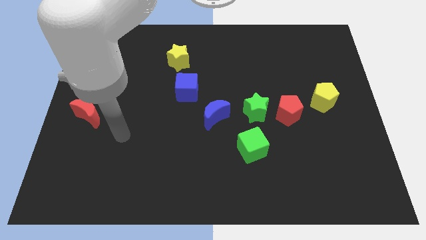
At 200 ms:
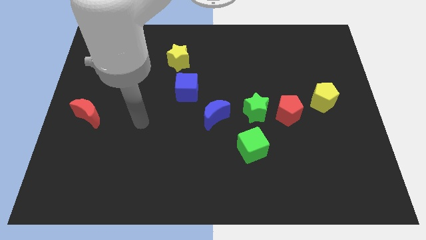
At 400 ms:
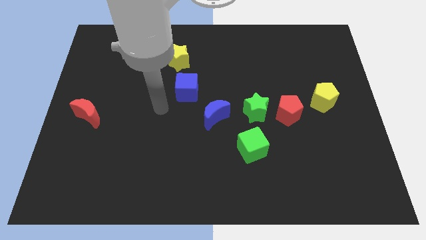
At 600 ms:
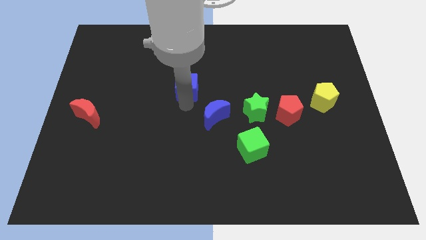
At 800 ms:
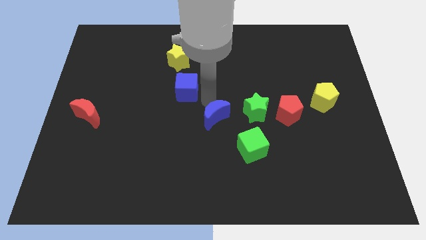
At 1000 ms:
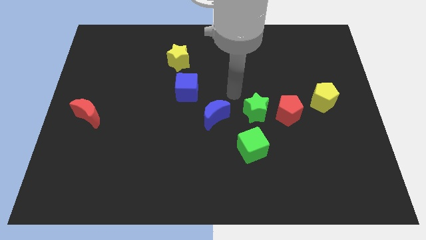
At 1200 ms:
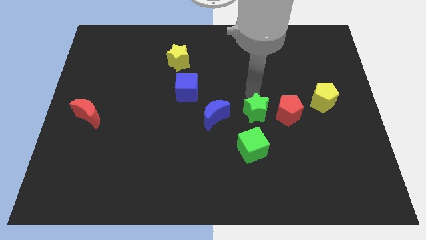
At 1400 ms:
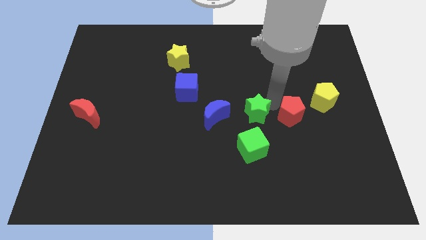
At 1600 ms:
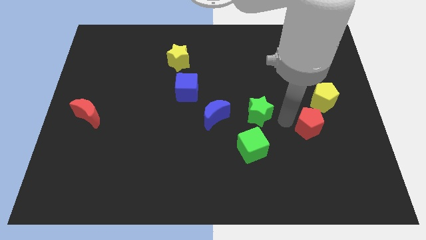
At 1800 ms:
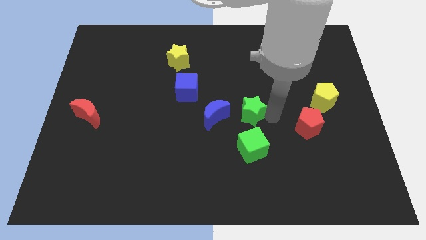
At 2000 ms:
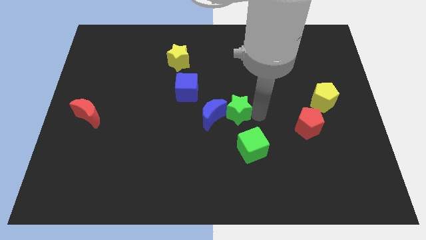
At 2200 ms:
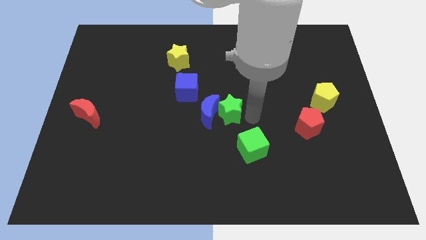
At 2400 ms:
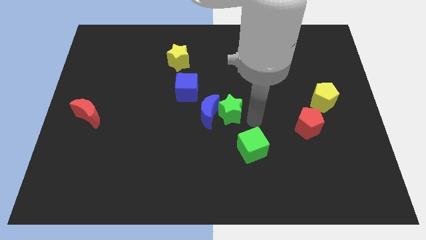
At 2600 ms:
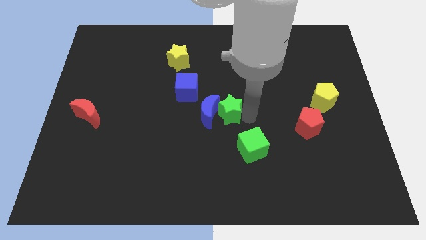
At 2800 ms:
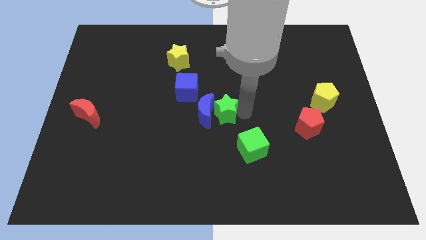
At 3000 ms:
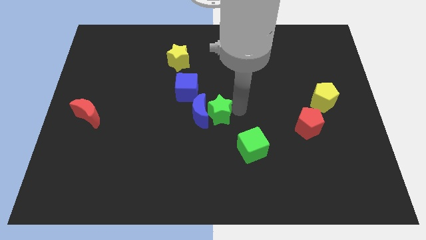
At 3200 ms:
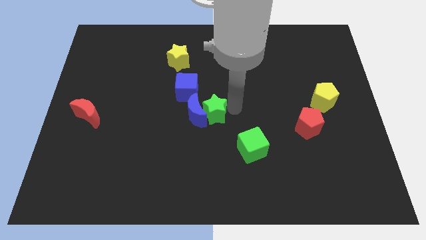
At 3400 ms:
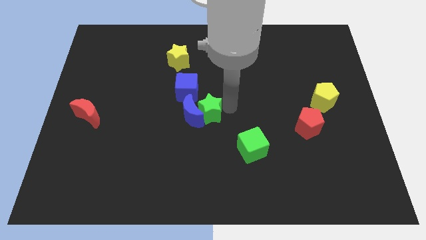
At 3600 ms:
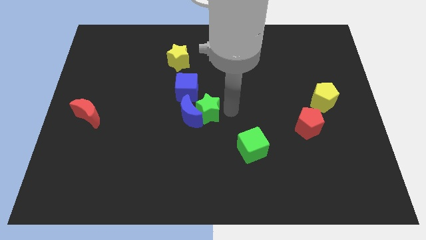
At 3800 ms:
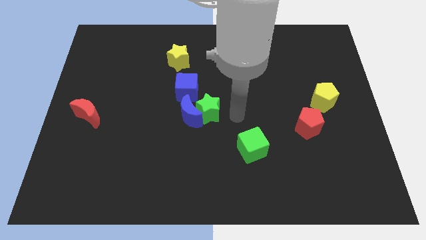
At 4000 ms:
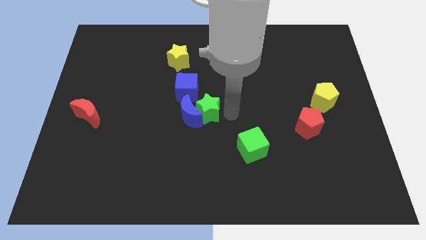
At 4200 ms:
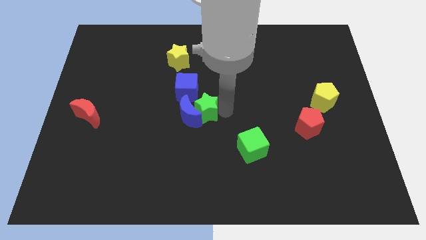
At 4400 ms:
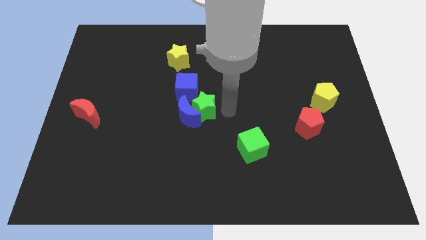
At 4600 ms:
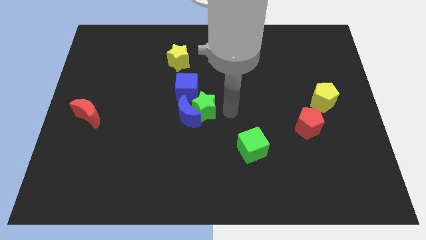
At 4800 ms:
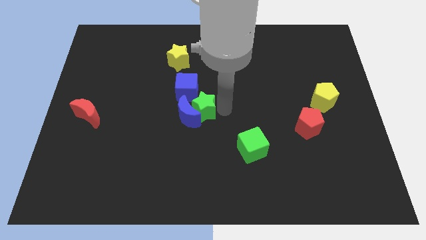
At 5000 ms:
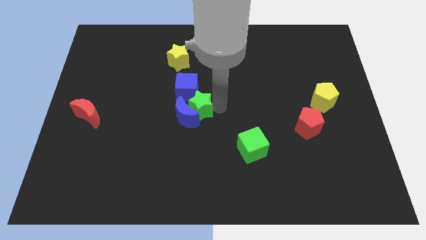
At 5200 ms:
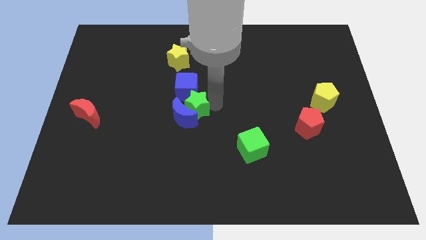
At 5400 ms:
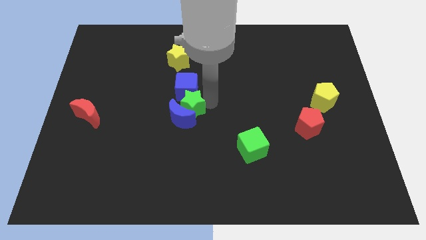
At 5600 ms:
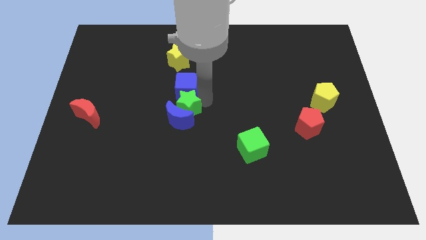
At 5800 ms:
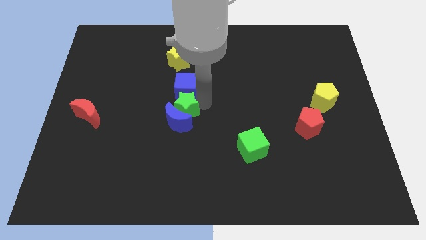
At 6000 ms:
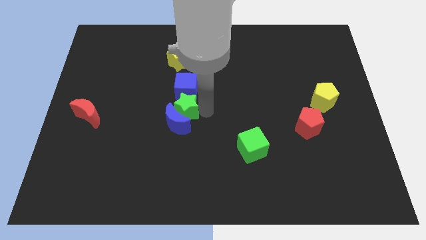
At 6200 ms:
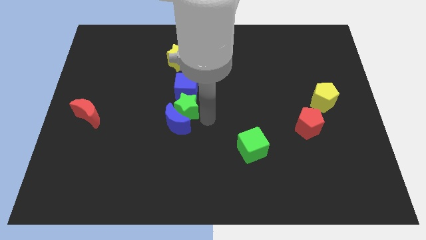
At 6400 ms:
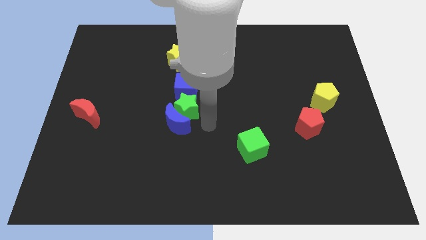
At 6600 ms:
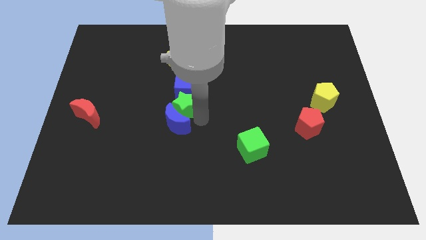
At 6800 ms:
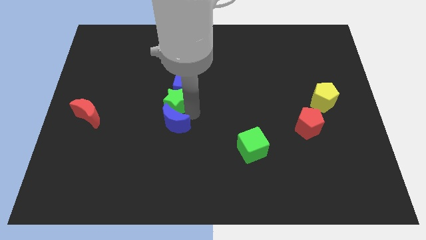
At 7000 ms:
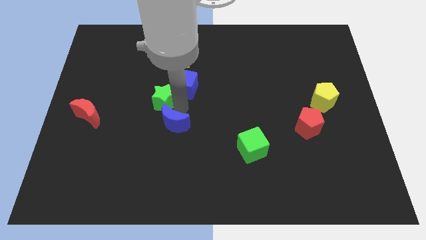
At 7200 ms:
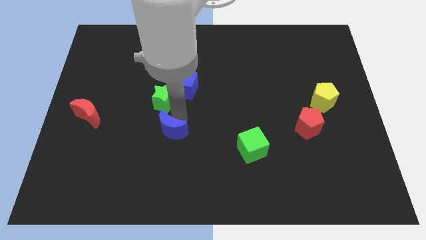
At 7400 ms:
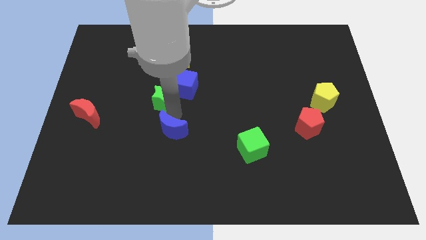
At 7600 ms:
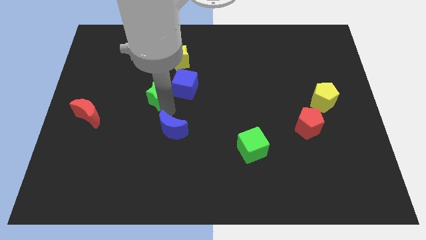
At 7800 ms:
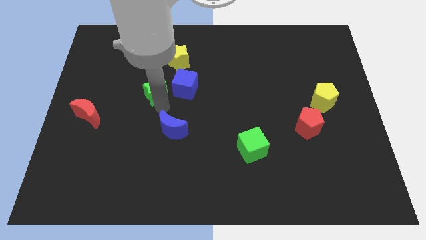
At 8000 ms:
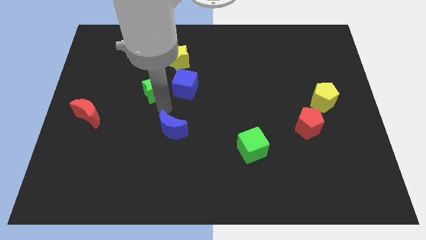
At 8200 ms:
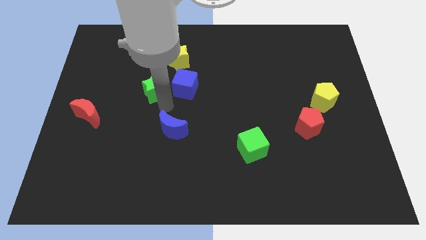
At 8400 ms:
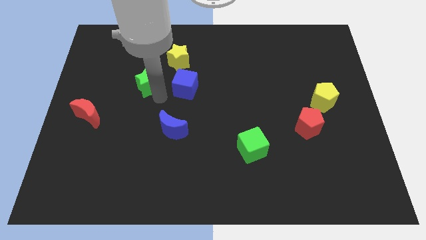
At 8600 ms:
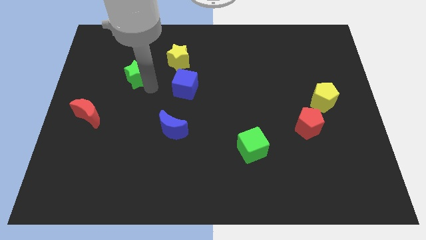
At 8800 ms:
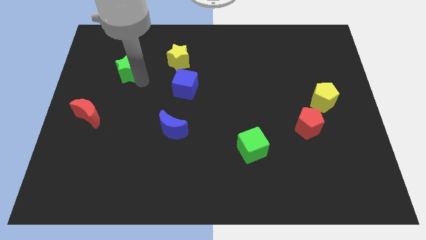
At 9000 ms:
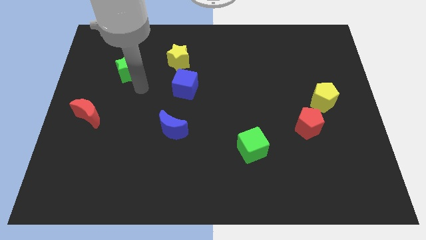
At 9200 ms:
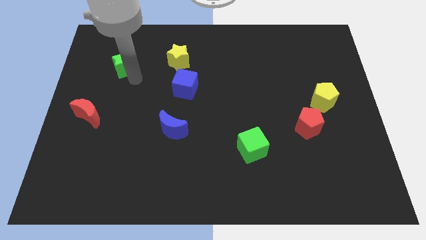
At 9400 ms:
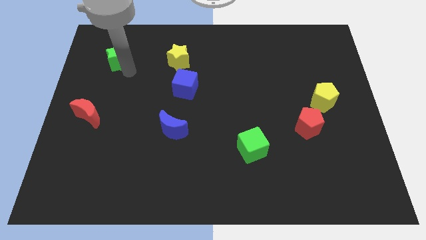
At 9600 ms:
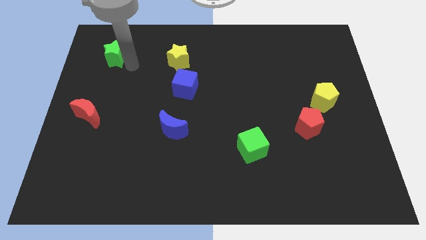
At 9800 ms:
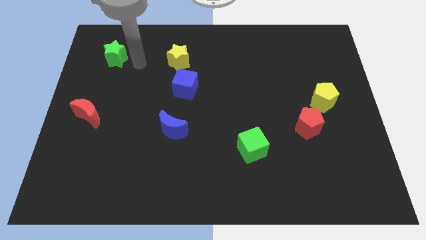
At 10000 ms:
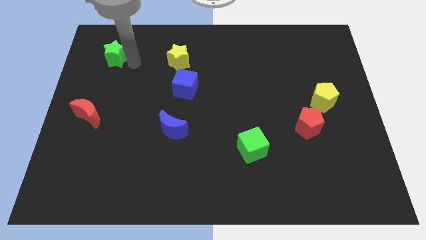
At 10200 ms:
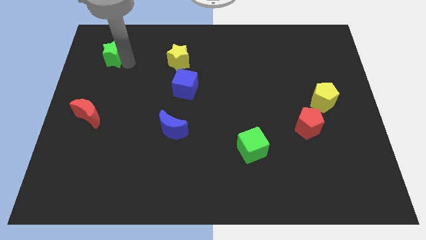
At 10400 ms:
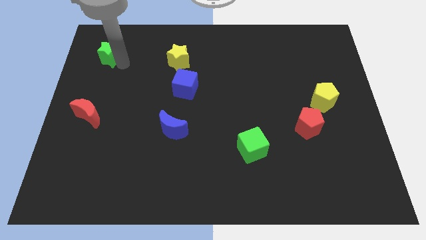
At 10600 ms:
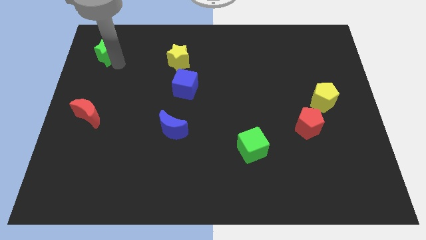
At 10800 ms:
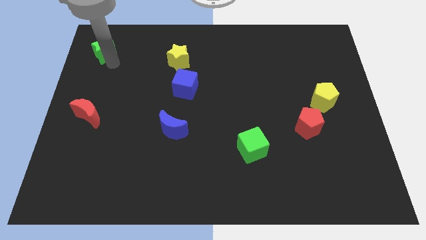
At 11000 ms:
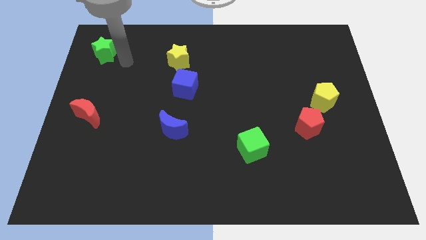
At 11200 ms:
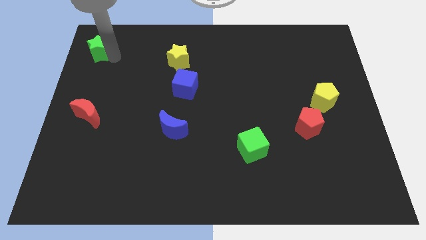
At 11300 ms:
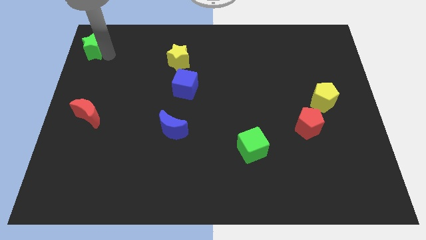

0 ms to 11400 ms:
slide the green star to the top left

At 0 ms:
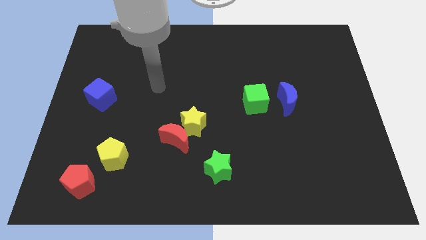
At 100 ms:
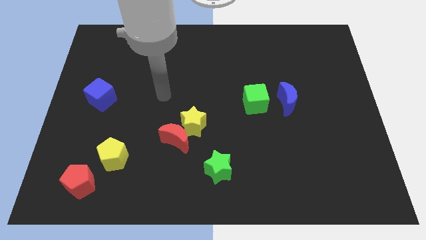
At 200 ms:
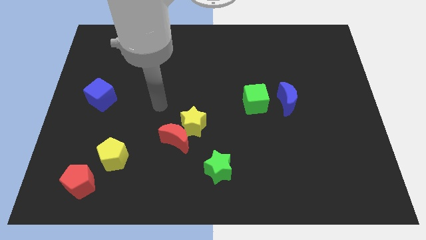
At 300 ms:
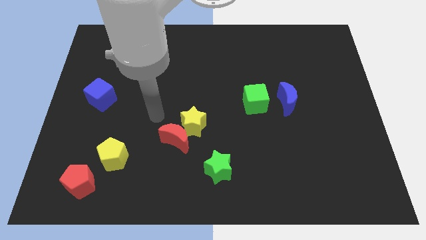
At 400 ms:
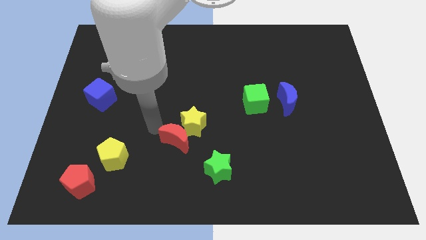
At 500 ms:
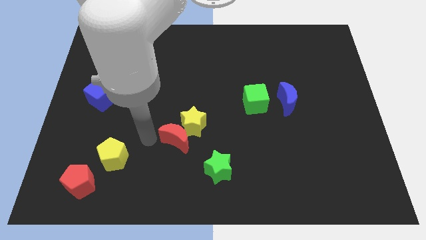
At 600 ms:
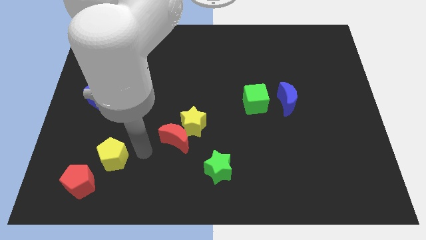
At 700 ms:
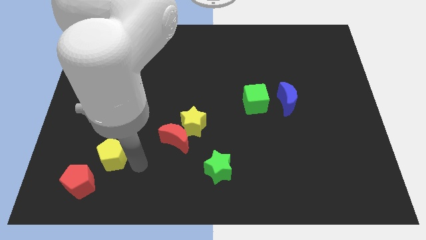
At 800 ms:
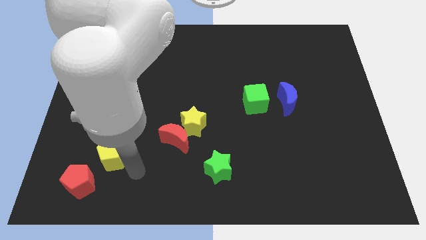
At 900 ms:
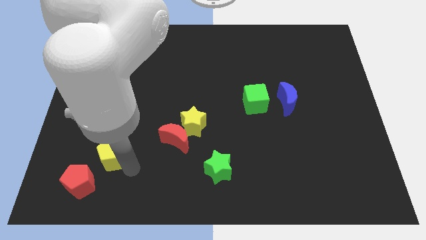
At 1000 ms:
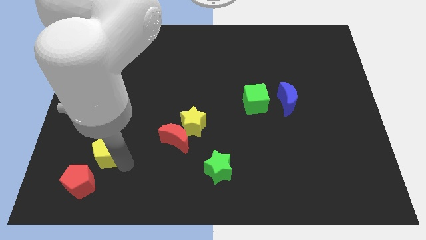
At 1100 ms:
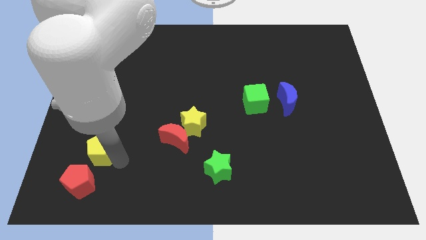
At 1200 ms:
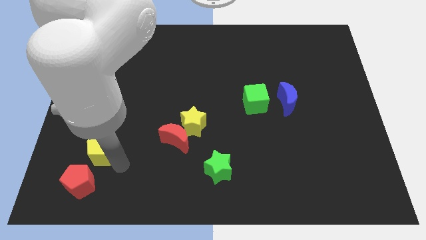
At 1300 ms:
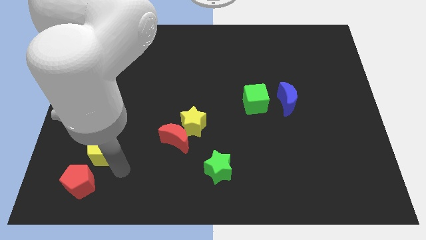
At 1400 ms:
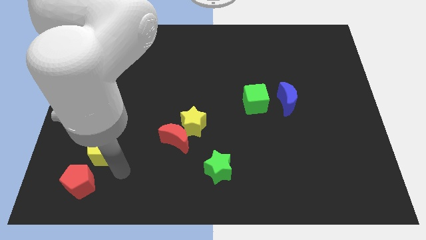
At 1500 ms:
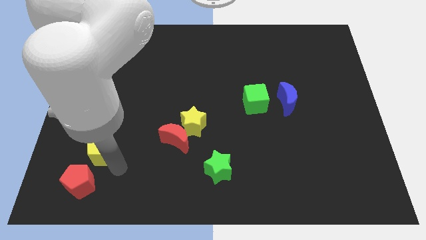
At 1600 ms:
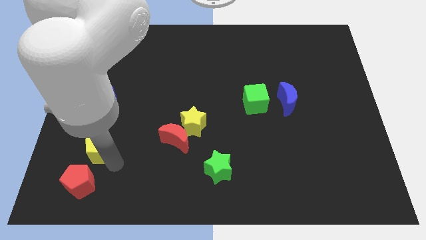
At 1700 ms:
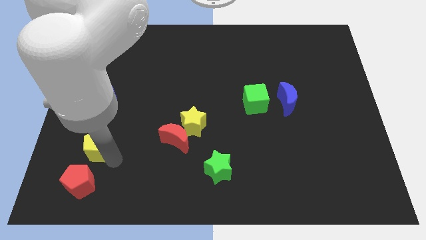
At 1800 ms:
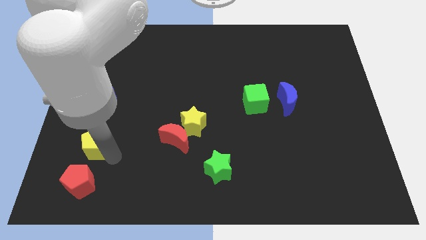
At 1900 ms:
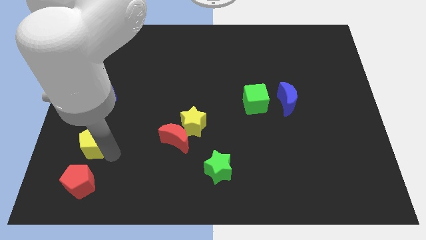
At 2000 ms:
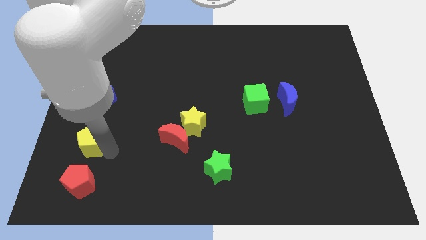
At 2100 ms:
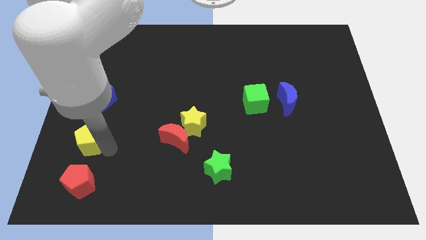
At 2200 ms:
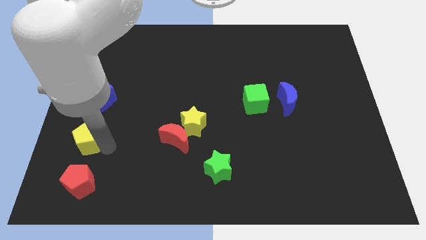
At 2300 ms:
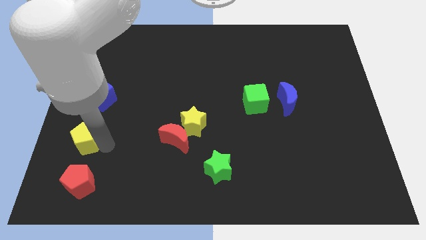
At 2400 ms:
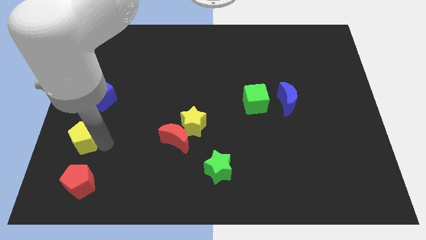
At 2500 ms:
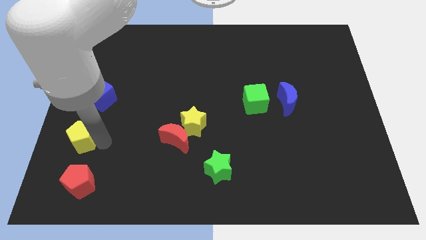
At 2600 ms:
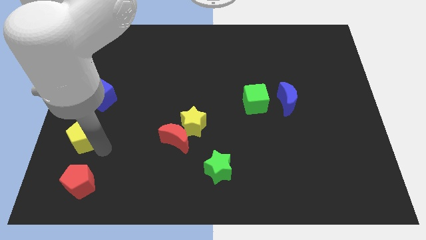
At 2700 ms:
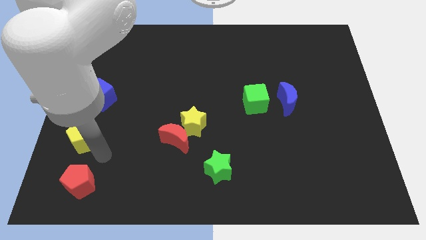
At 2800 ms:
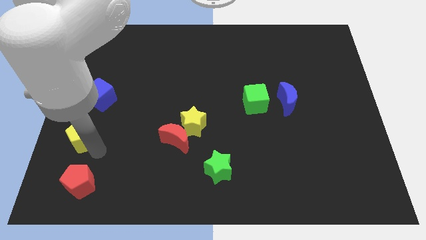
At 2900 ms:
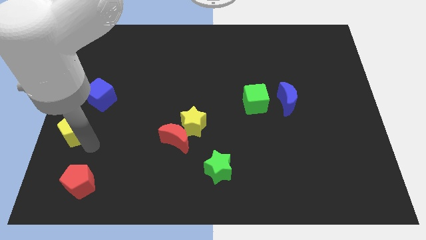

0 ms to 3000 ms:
put the yellow pentagon to the left side
